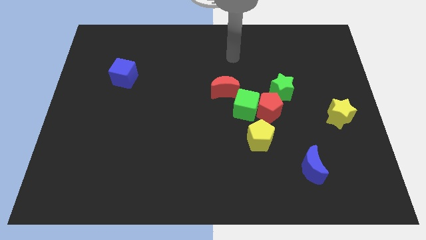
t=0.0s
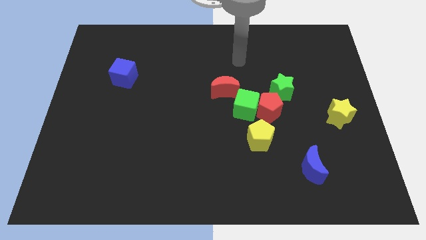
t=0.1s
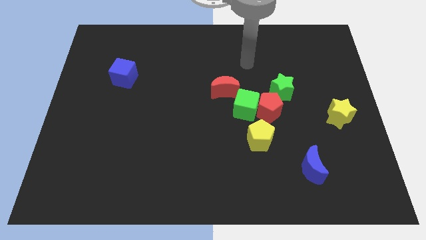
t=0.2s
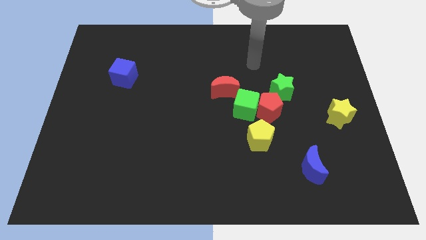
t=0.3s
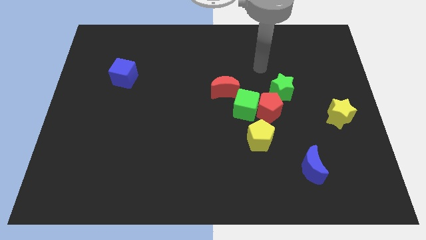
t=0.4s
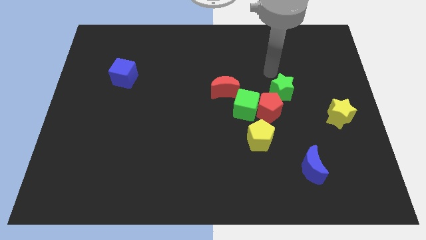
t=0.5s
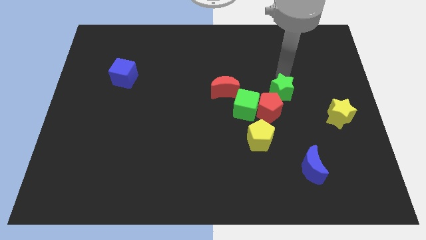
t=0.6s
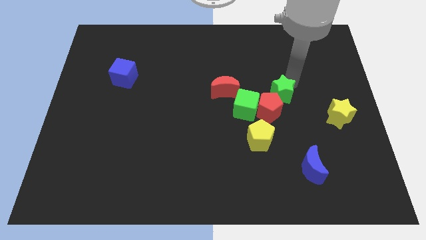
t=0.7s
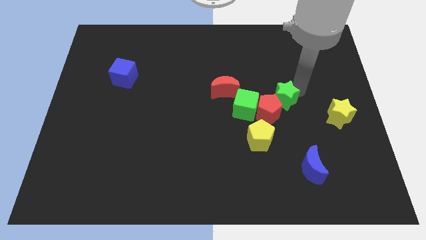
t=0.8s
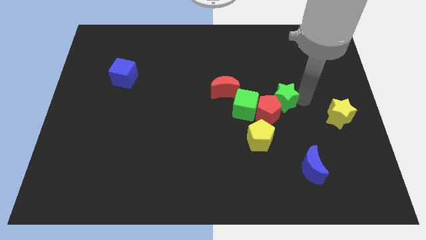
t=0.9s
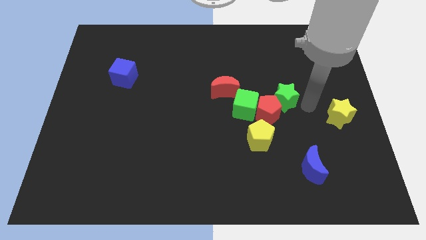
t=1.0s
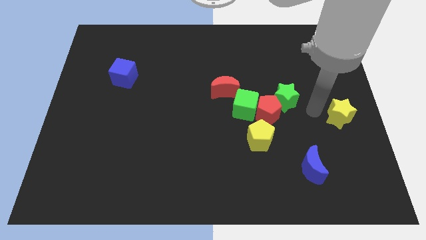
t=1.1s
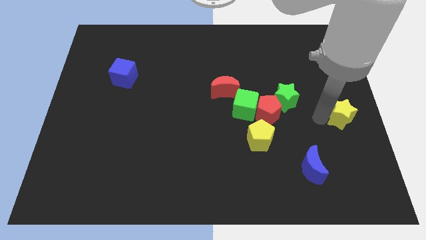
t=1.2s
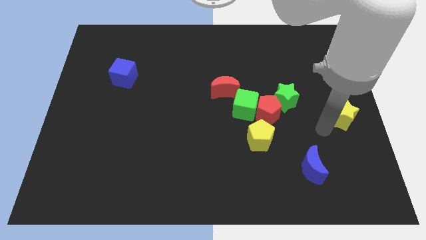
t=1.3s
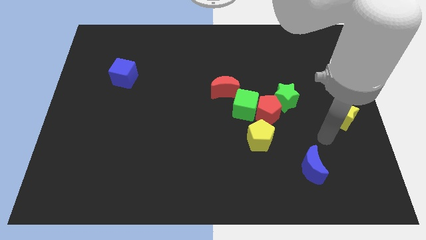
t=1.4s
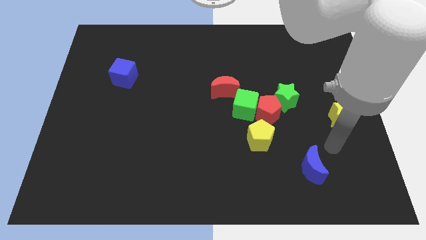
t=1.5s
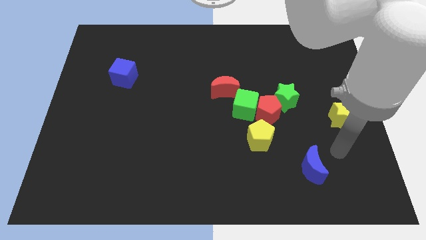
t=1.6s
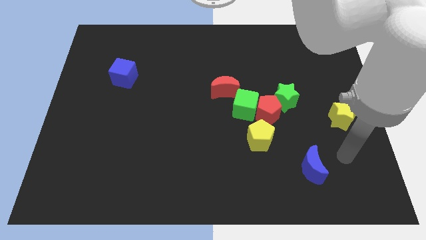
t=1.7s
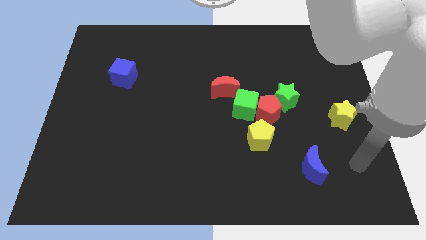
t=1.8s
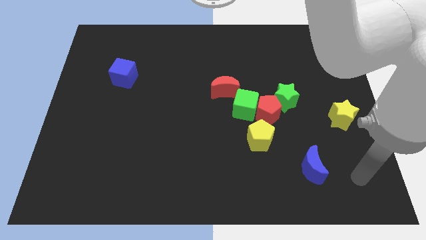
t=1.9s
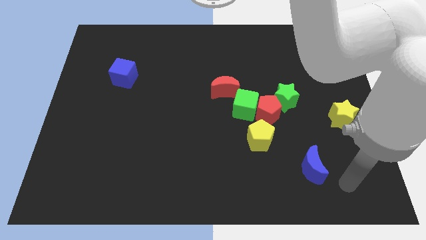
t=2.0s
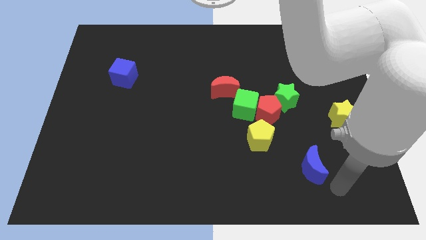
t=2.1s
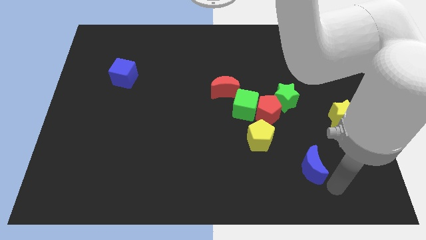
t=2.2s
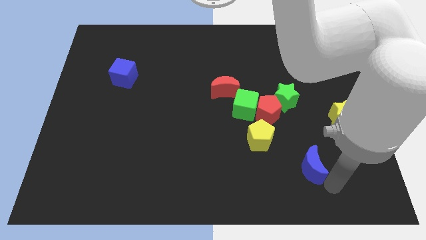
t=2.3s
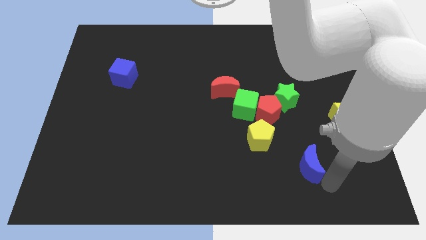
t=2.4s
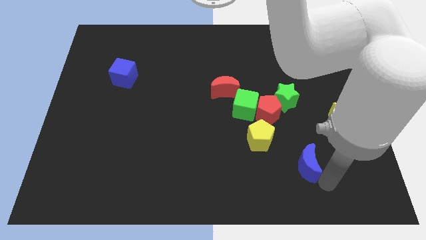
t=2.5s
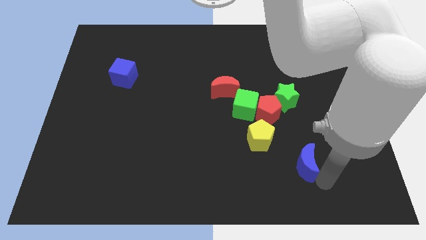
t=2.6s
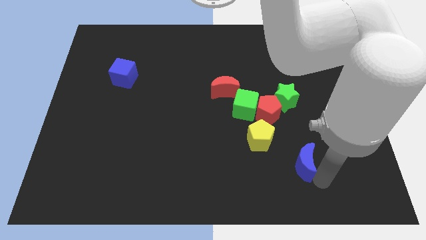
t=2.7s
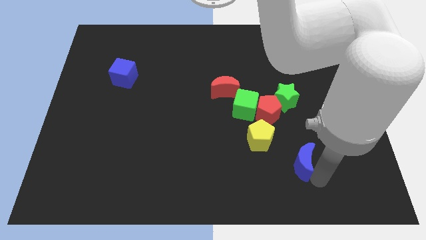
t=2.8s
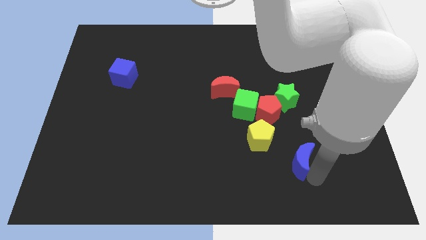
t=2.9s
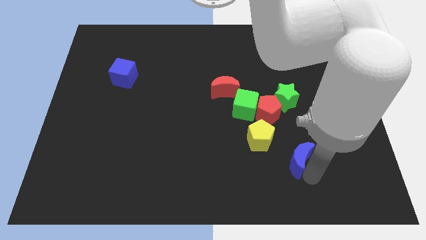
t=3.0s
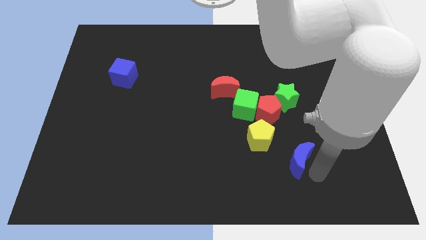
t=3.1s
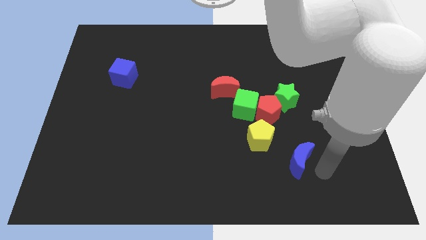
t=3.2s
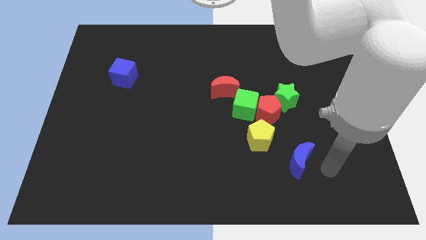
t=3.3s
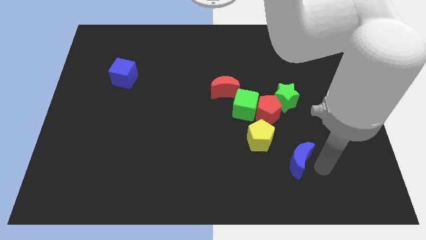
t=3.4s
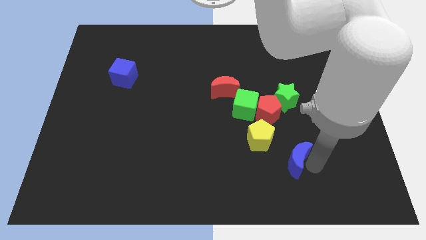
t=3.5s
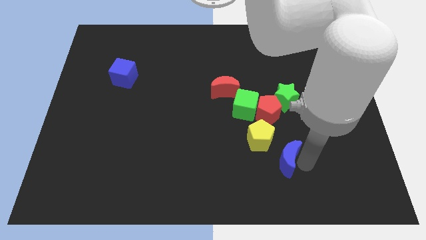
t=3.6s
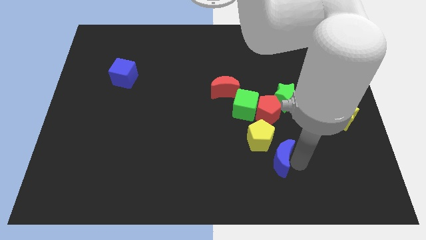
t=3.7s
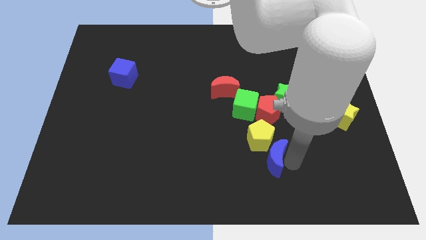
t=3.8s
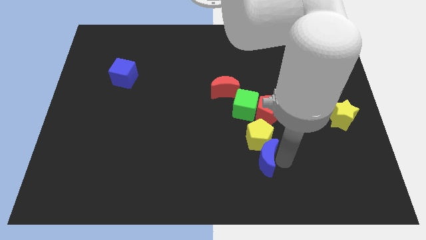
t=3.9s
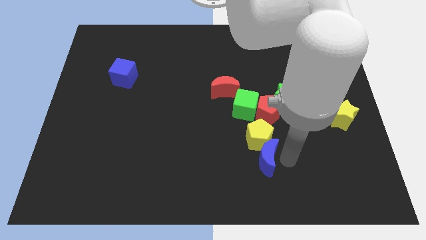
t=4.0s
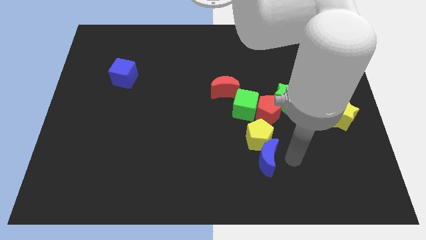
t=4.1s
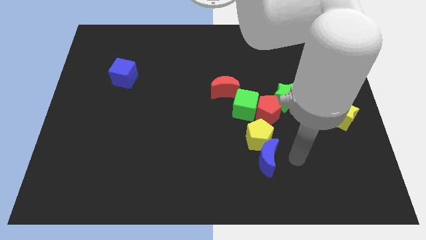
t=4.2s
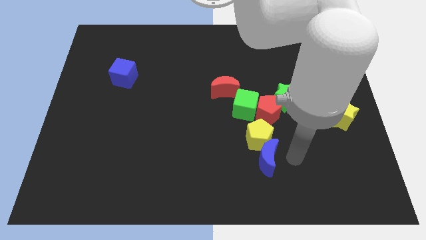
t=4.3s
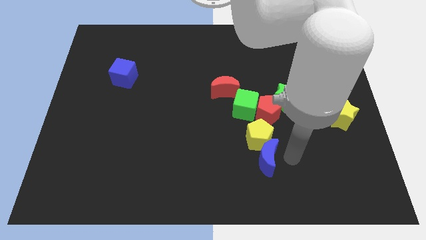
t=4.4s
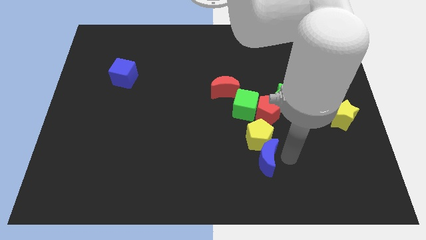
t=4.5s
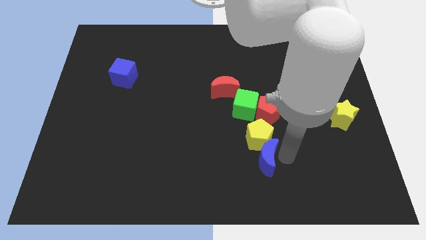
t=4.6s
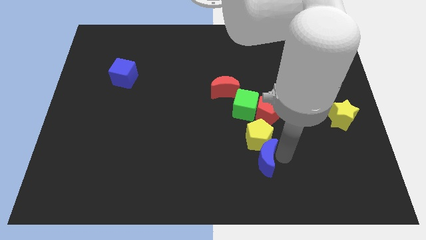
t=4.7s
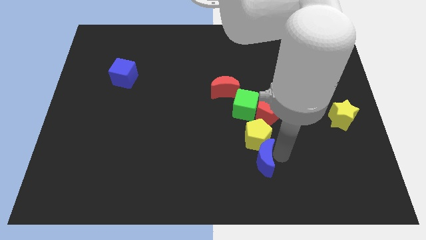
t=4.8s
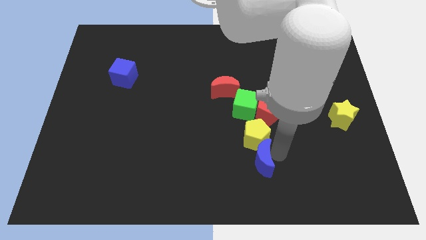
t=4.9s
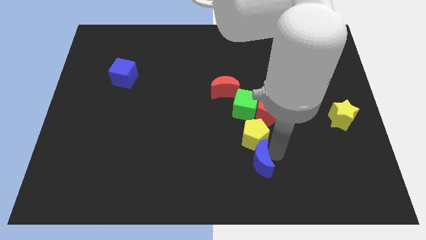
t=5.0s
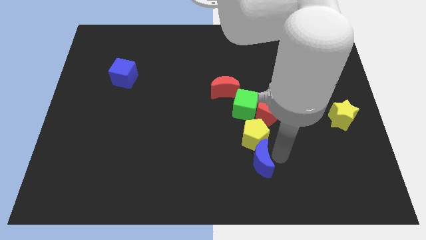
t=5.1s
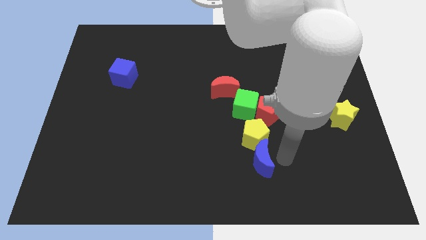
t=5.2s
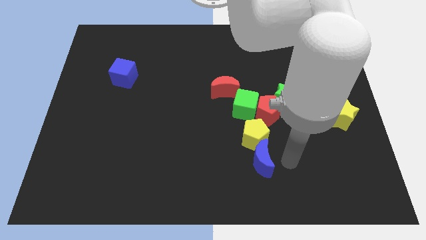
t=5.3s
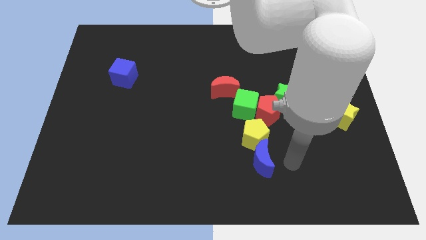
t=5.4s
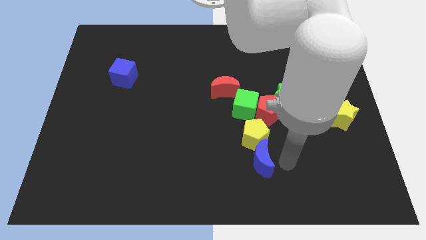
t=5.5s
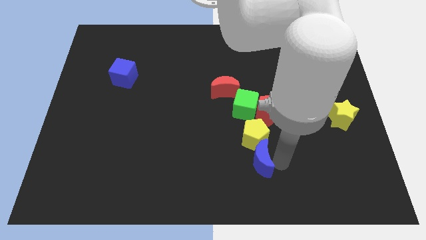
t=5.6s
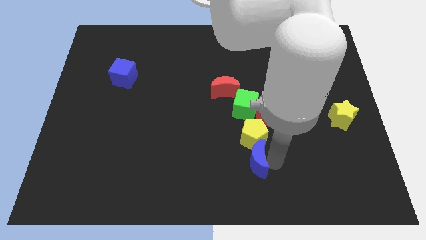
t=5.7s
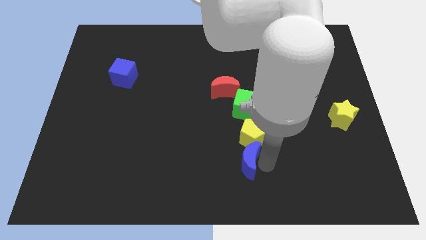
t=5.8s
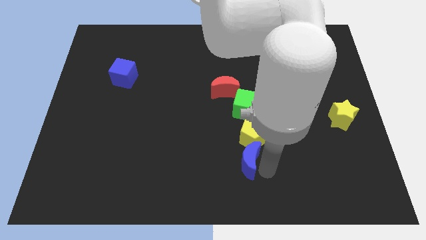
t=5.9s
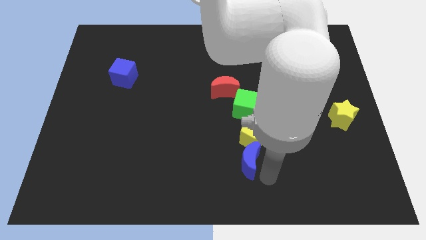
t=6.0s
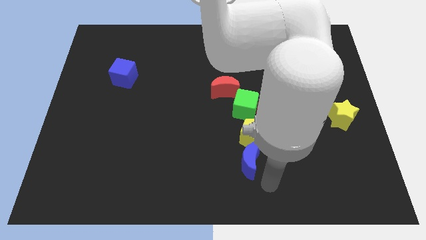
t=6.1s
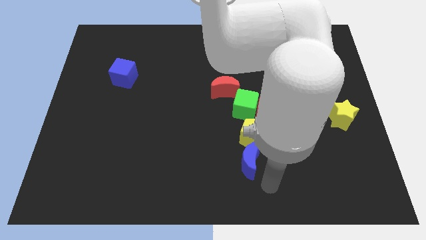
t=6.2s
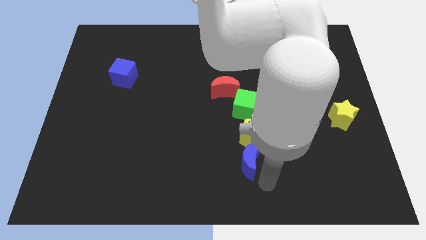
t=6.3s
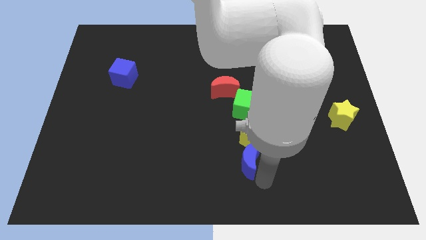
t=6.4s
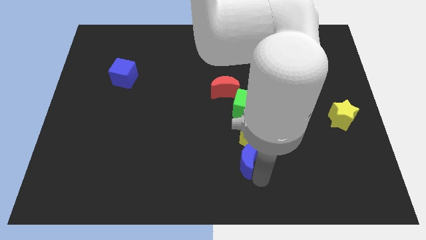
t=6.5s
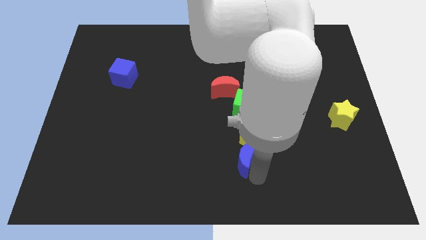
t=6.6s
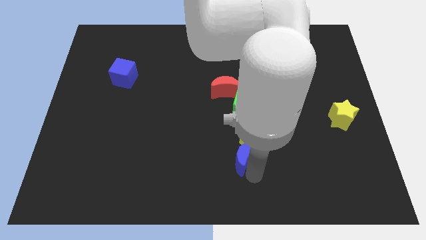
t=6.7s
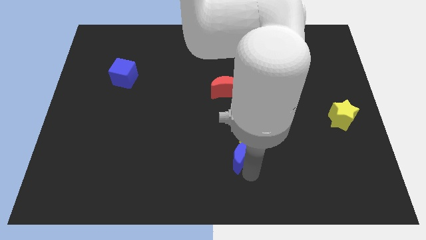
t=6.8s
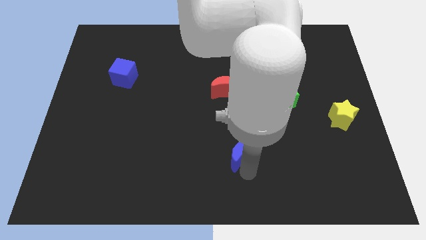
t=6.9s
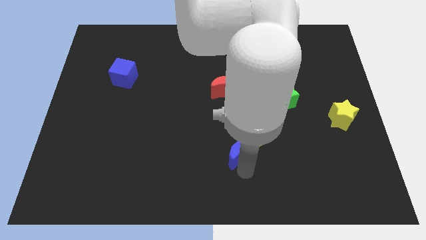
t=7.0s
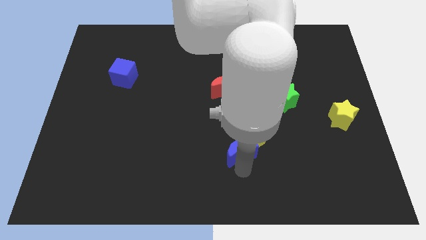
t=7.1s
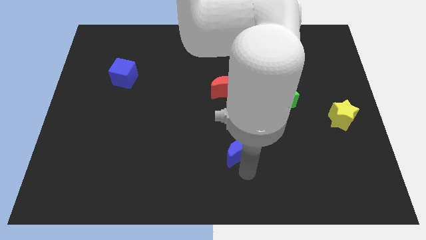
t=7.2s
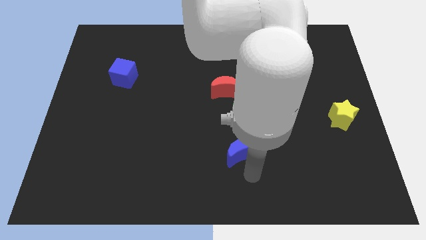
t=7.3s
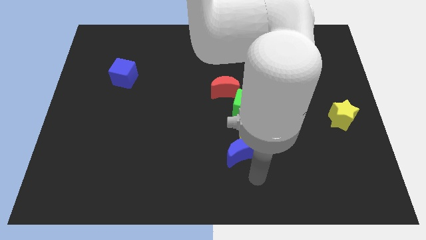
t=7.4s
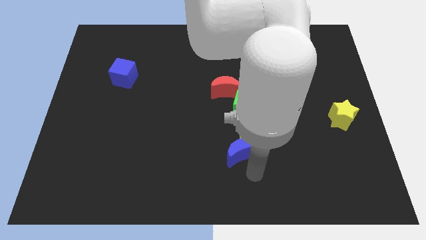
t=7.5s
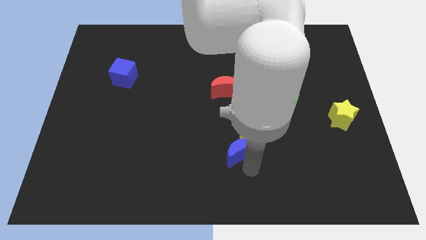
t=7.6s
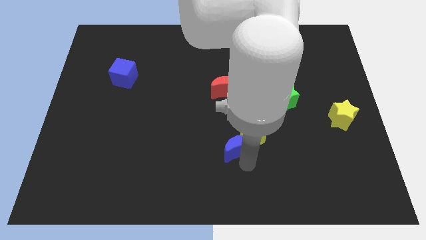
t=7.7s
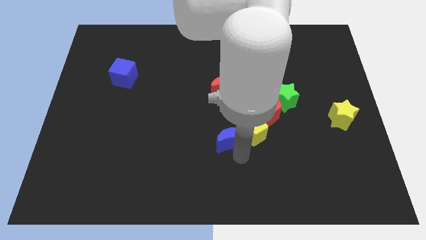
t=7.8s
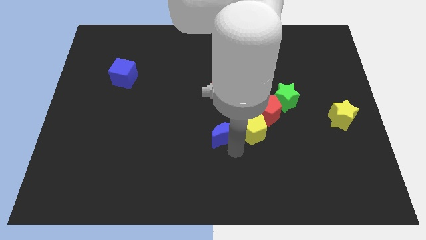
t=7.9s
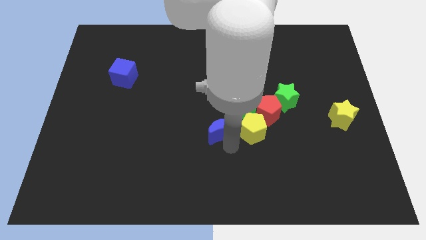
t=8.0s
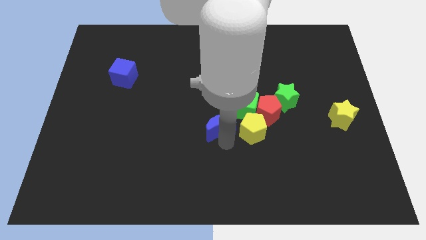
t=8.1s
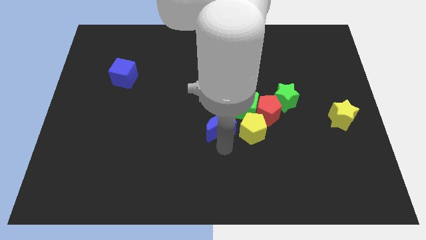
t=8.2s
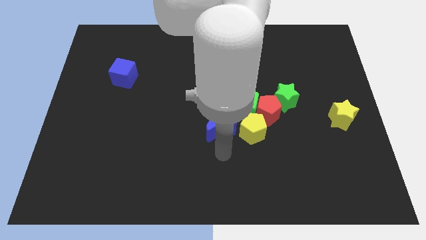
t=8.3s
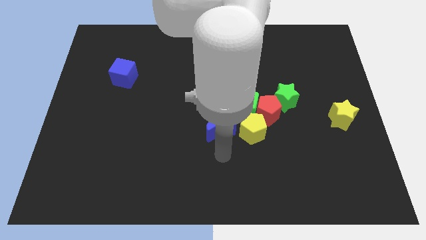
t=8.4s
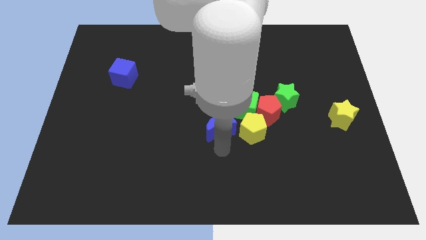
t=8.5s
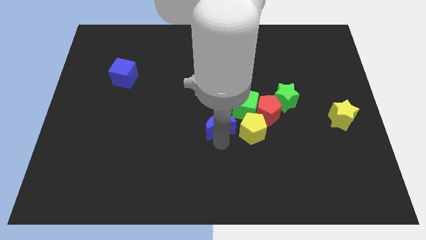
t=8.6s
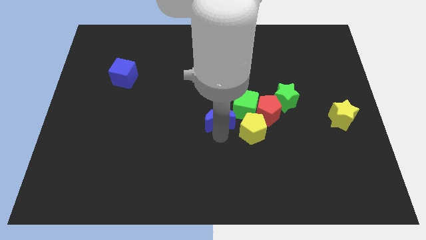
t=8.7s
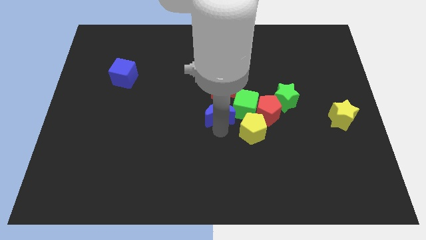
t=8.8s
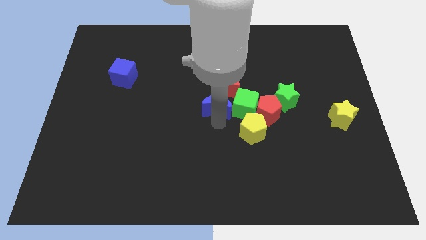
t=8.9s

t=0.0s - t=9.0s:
push the blue moon to the red moon
